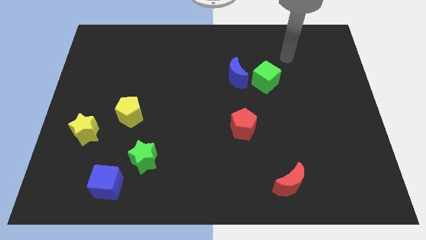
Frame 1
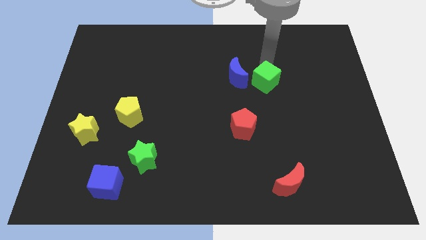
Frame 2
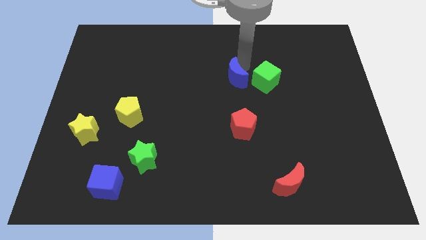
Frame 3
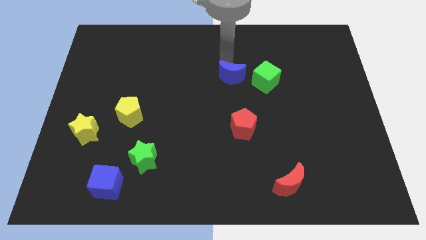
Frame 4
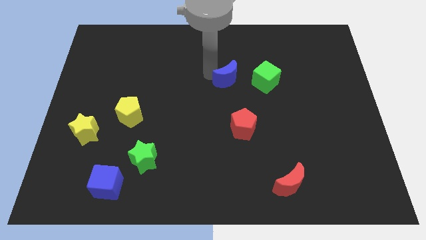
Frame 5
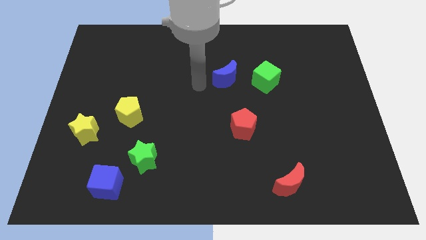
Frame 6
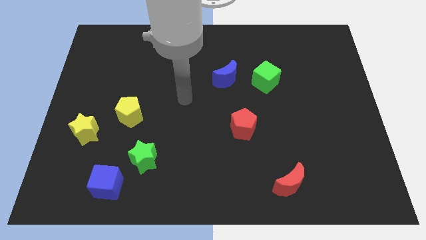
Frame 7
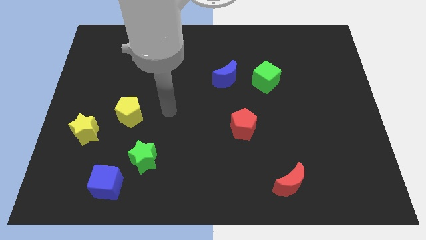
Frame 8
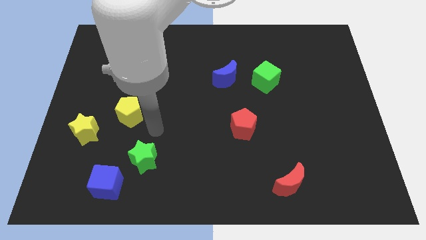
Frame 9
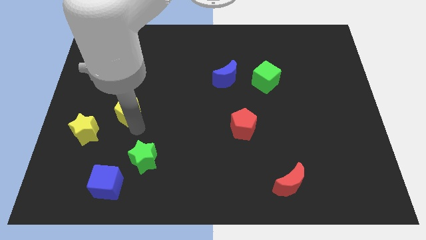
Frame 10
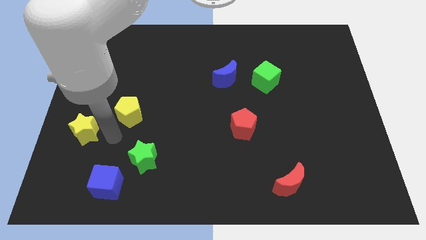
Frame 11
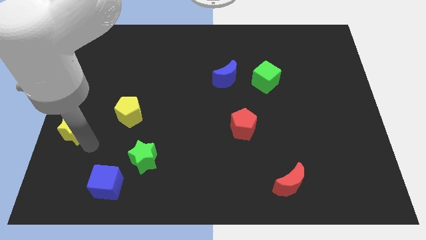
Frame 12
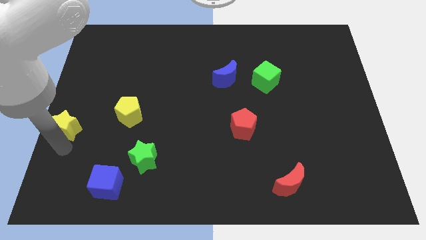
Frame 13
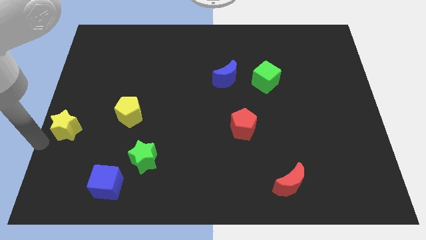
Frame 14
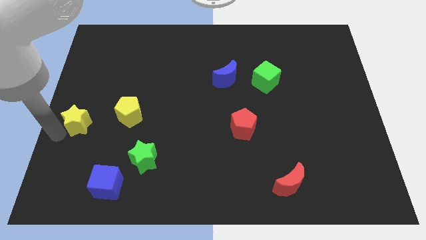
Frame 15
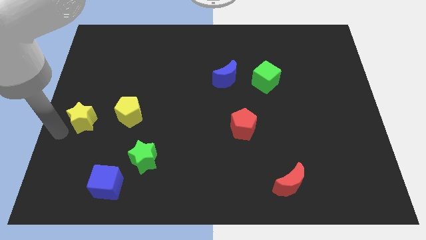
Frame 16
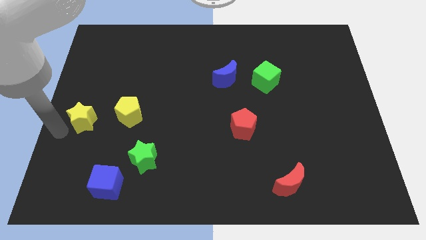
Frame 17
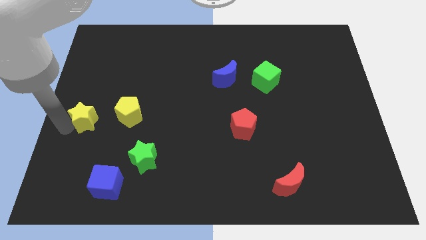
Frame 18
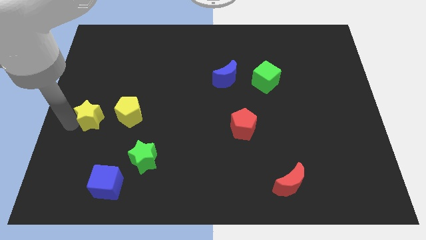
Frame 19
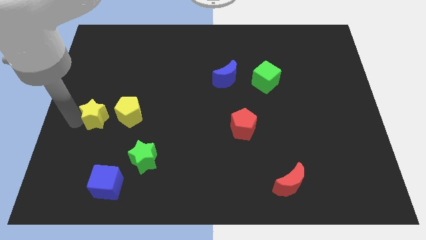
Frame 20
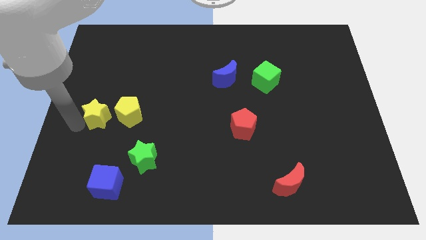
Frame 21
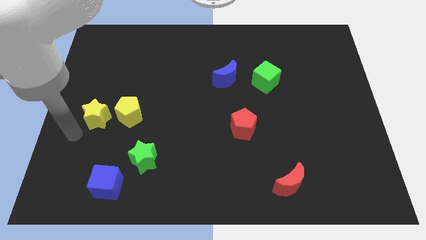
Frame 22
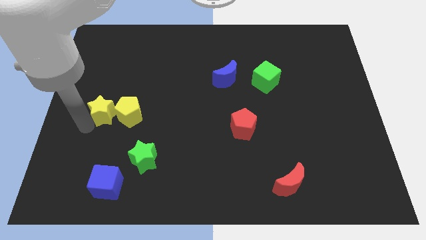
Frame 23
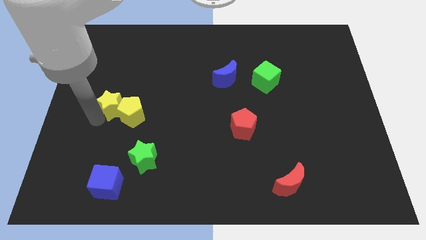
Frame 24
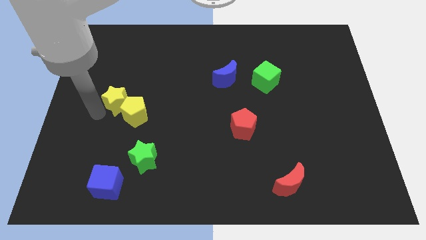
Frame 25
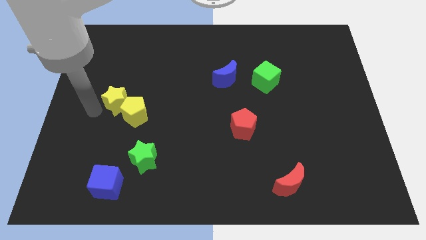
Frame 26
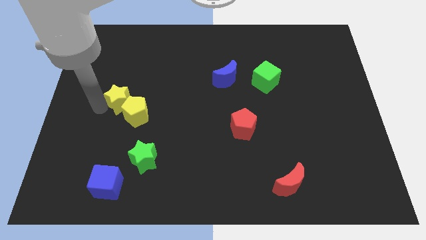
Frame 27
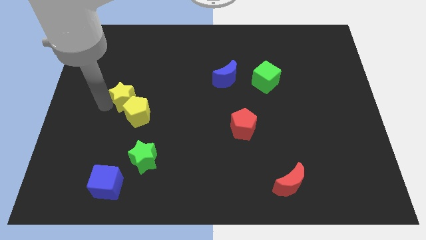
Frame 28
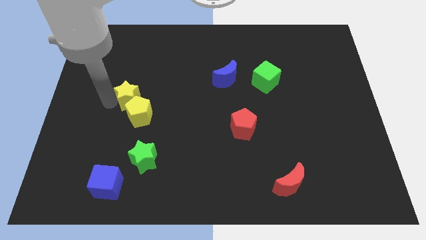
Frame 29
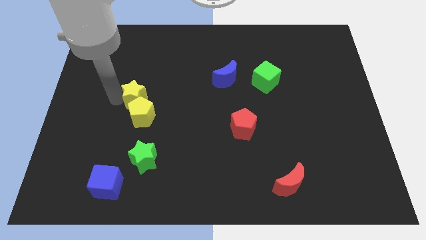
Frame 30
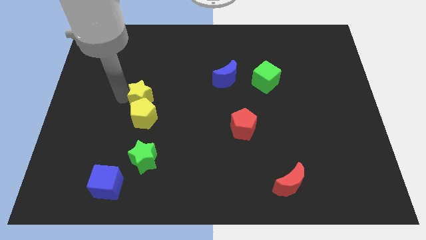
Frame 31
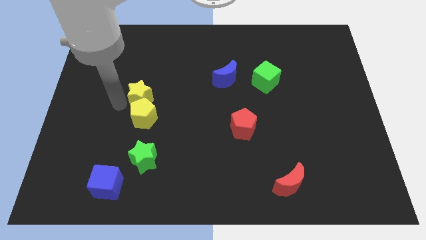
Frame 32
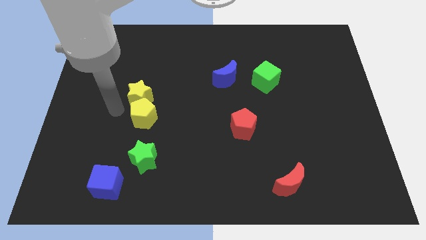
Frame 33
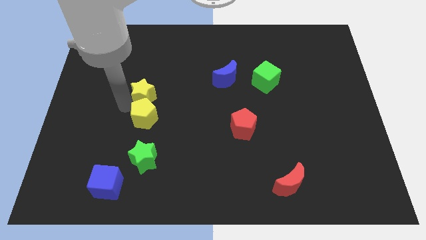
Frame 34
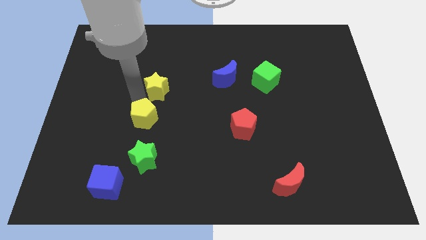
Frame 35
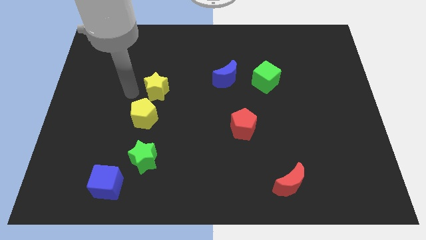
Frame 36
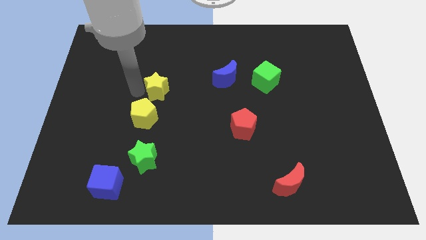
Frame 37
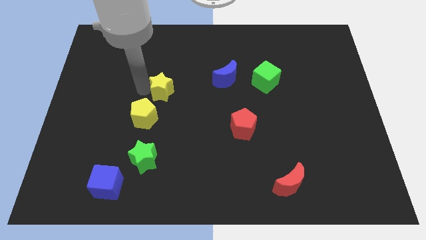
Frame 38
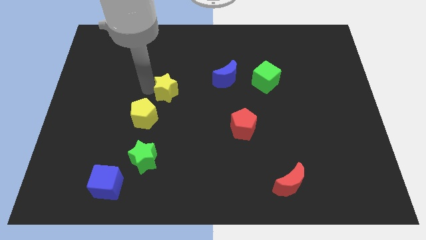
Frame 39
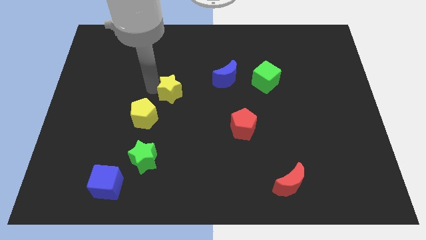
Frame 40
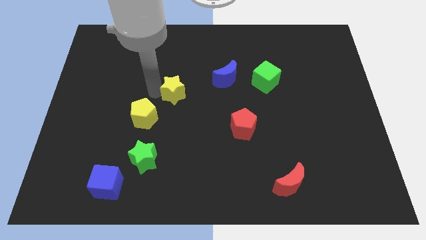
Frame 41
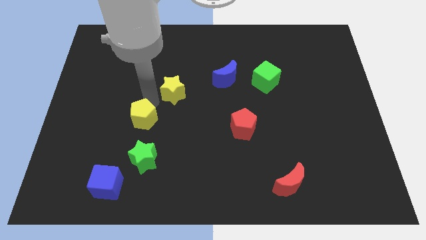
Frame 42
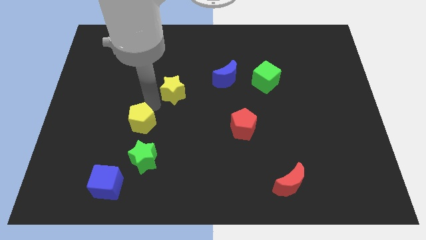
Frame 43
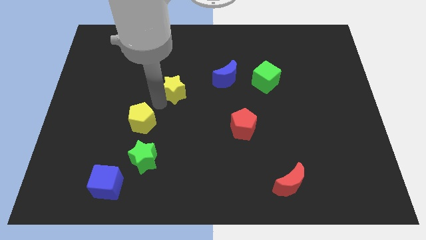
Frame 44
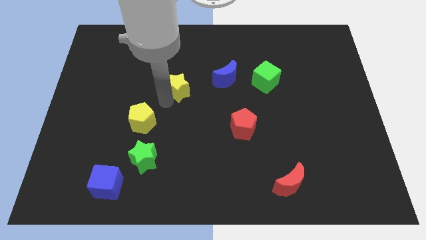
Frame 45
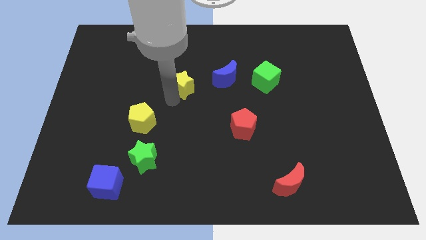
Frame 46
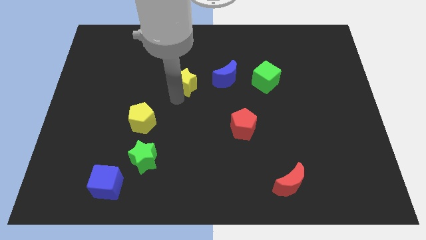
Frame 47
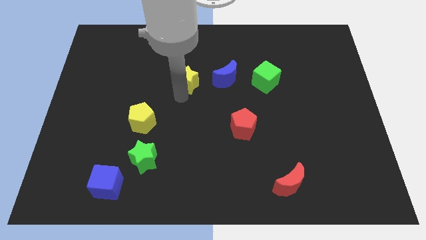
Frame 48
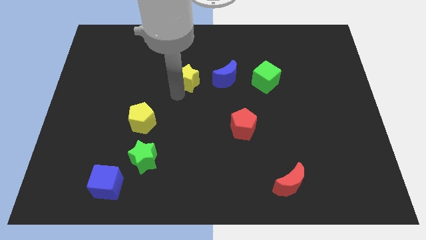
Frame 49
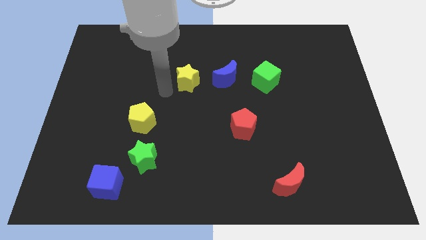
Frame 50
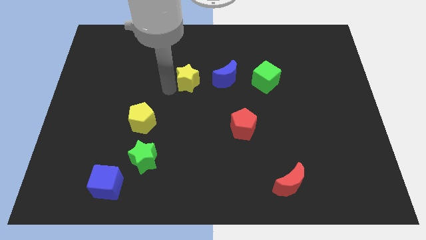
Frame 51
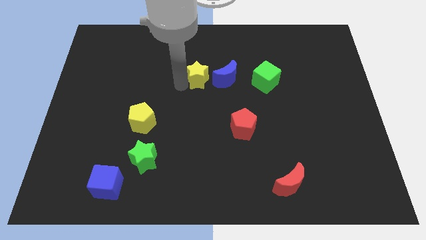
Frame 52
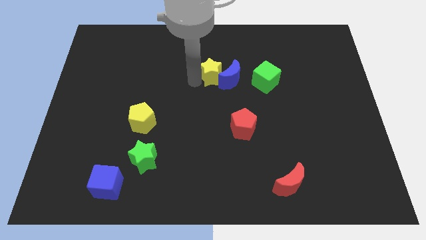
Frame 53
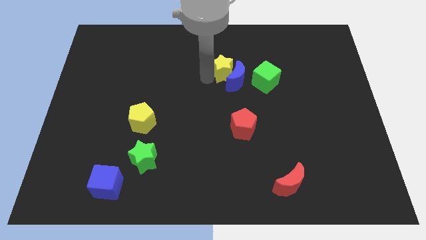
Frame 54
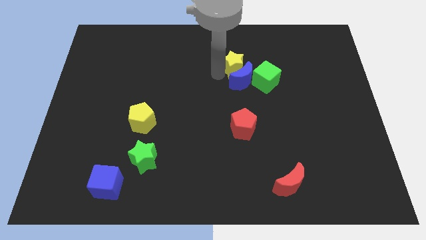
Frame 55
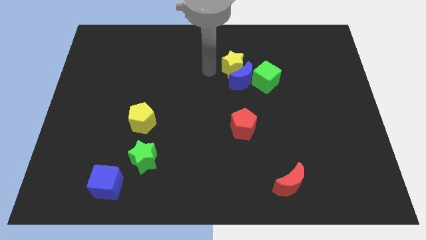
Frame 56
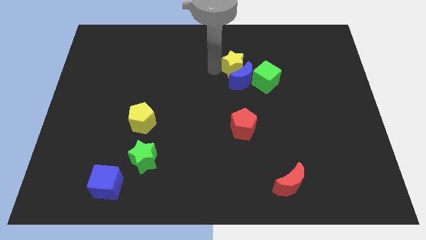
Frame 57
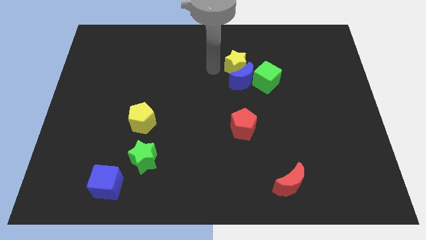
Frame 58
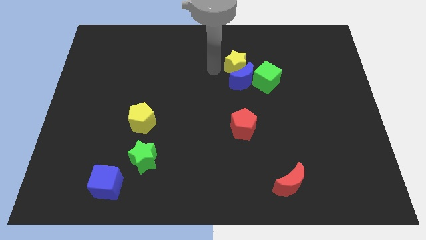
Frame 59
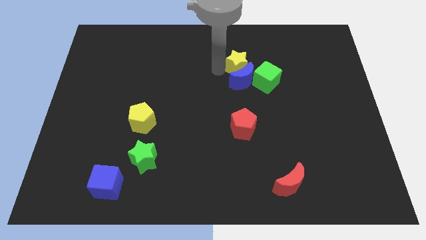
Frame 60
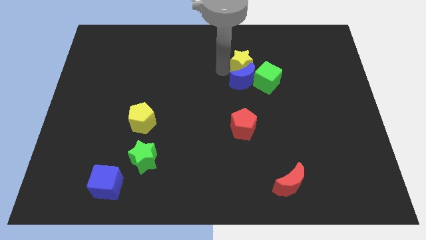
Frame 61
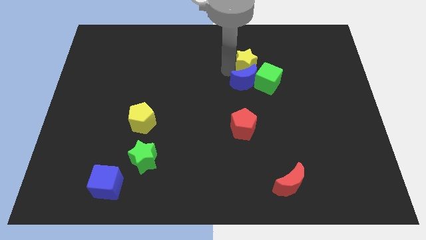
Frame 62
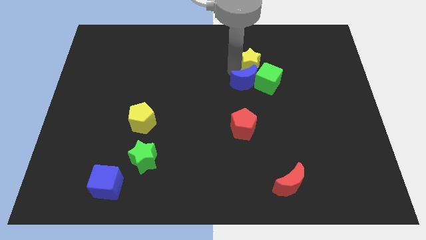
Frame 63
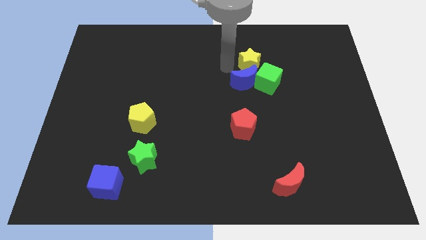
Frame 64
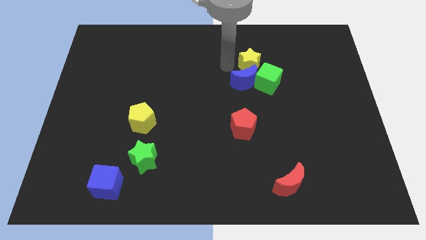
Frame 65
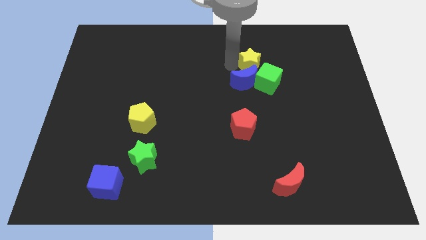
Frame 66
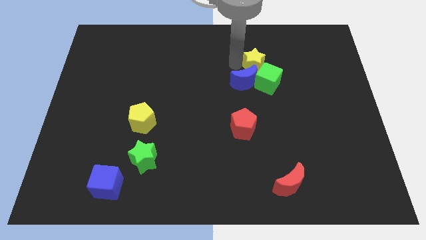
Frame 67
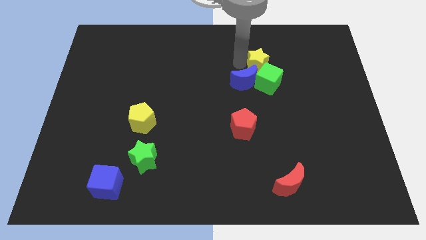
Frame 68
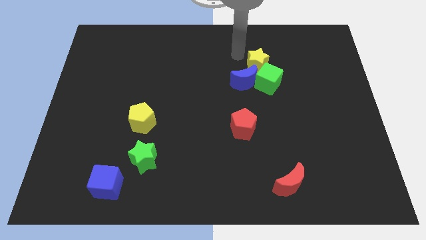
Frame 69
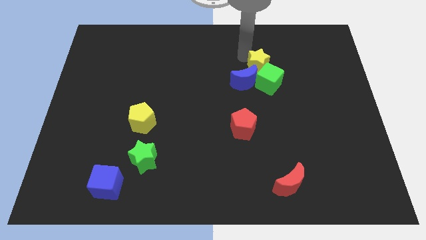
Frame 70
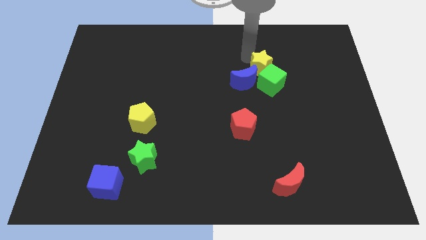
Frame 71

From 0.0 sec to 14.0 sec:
move the yellow star just right of the blue moon

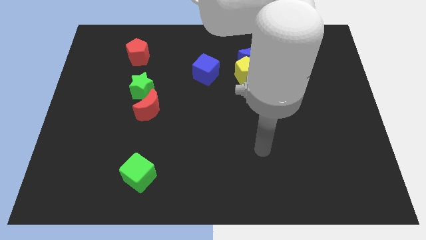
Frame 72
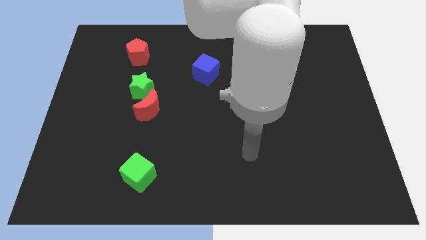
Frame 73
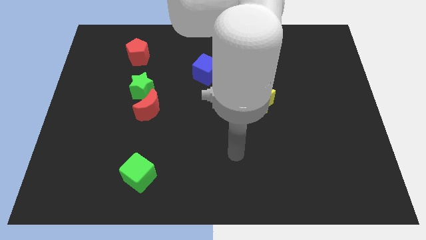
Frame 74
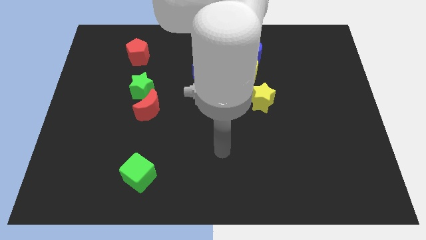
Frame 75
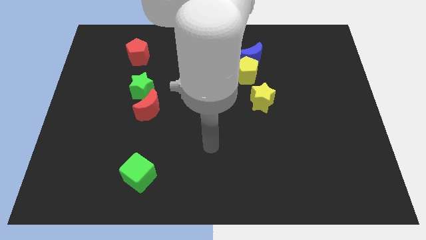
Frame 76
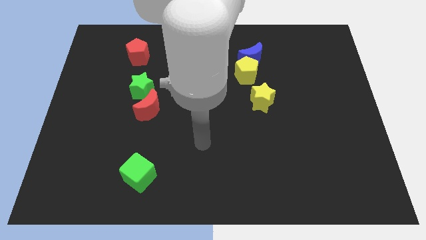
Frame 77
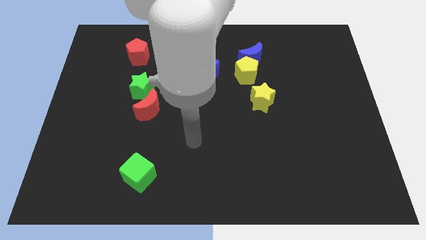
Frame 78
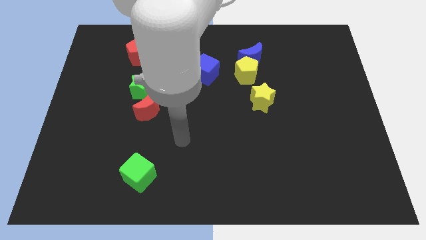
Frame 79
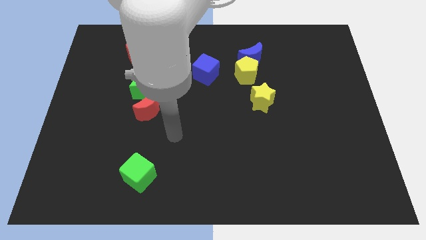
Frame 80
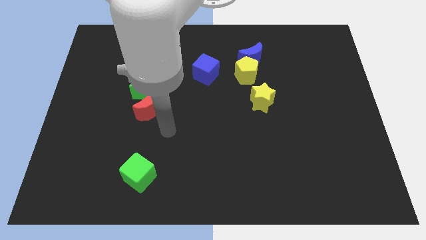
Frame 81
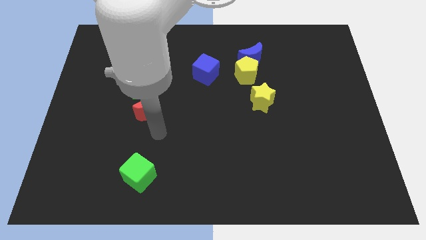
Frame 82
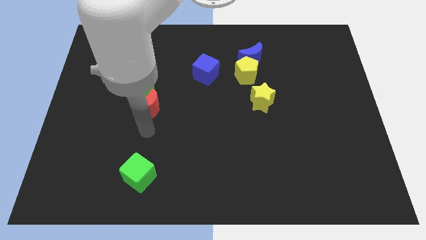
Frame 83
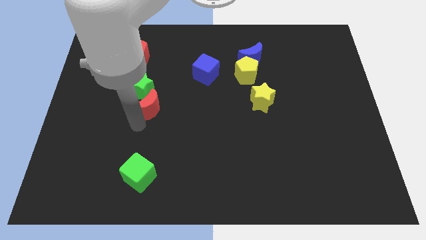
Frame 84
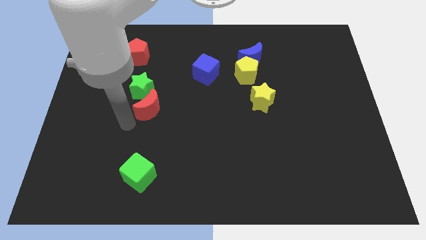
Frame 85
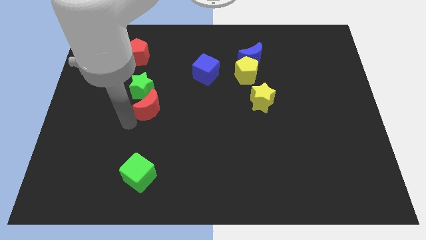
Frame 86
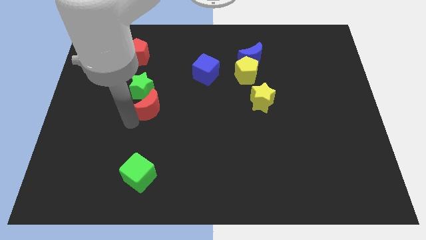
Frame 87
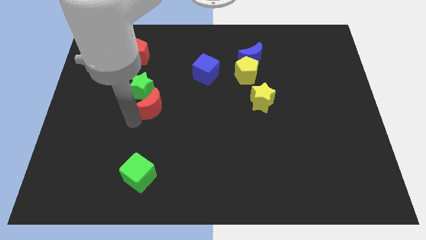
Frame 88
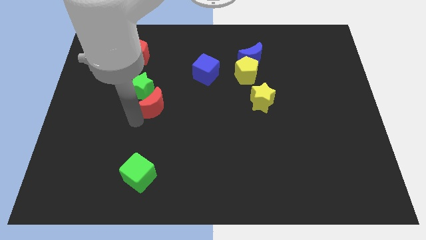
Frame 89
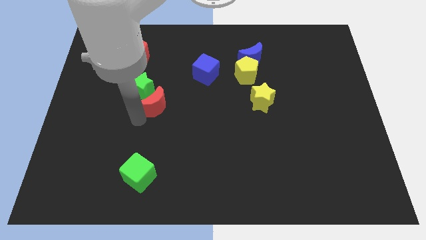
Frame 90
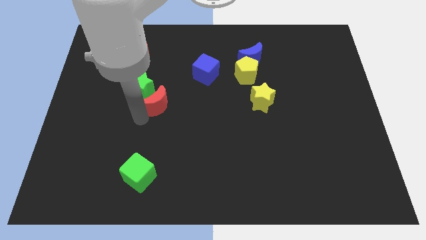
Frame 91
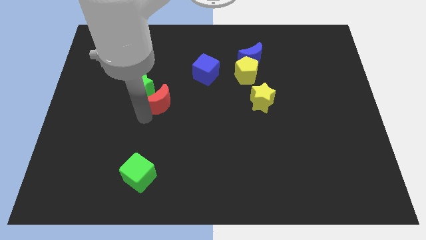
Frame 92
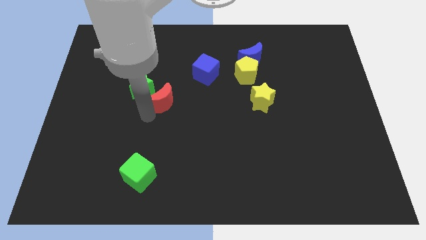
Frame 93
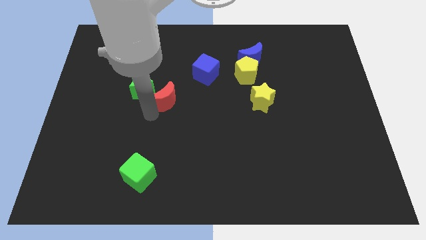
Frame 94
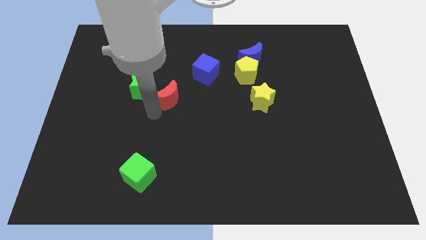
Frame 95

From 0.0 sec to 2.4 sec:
slide the red moon to the bottom left of the blue cube
